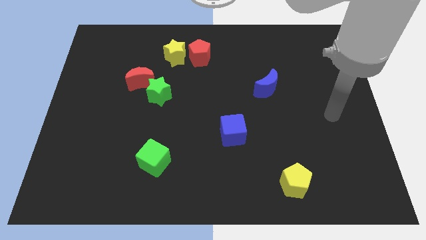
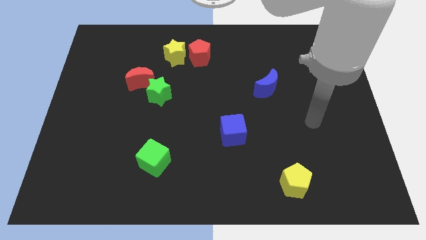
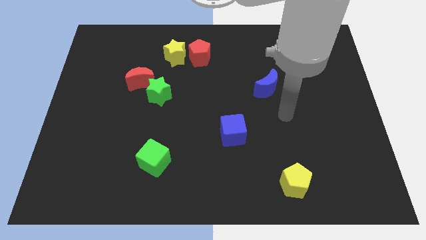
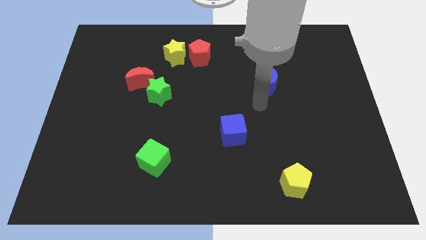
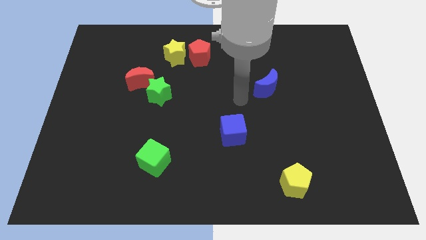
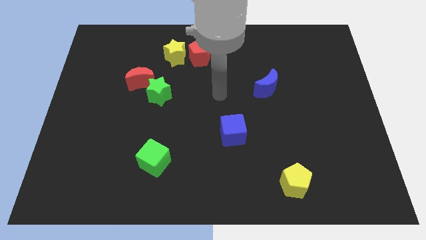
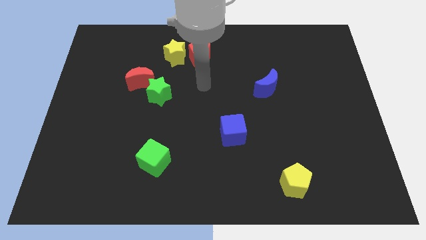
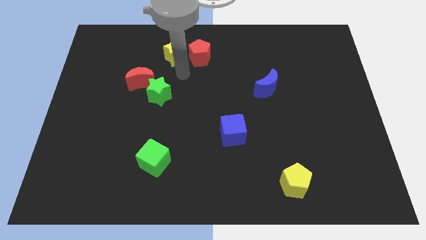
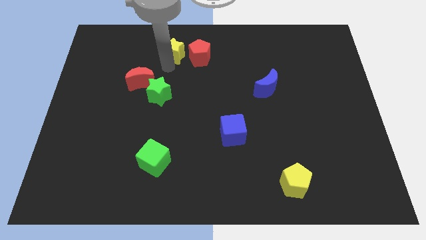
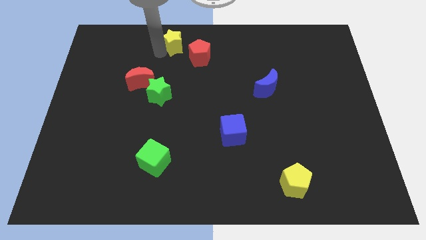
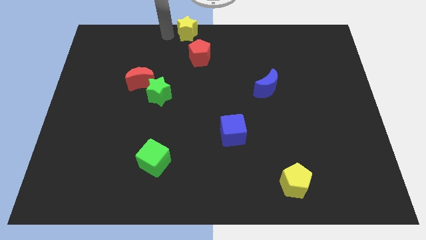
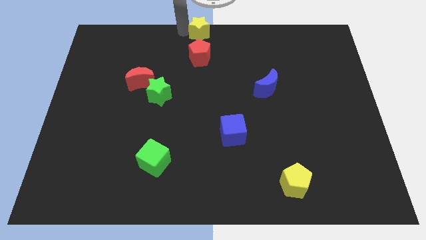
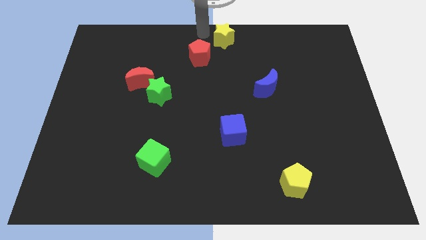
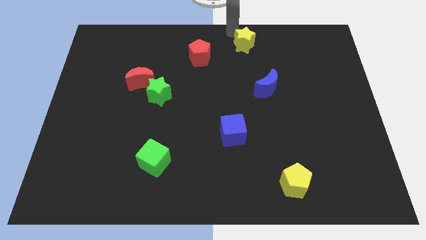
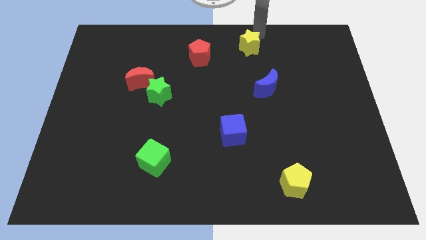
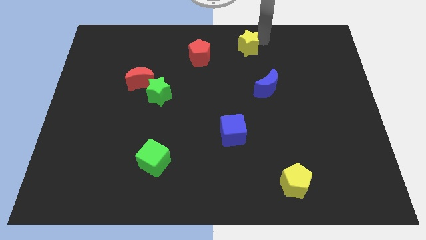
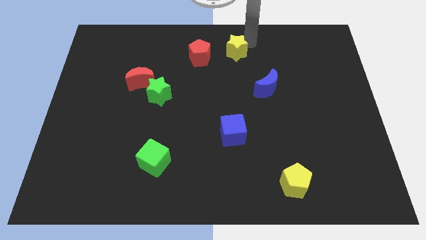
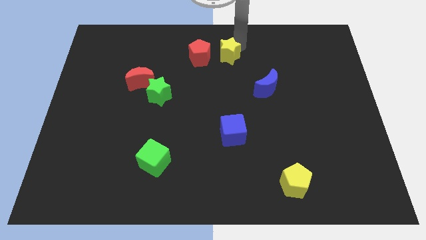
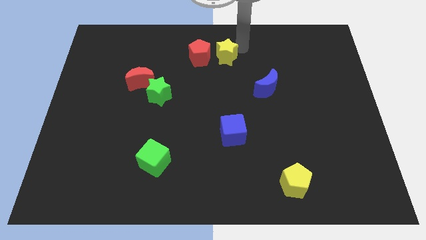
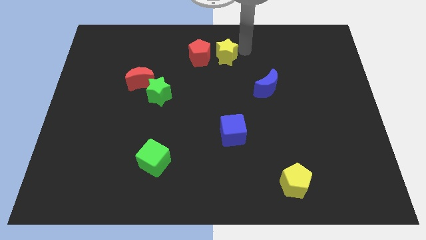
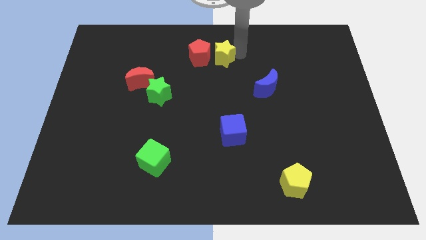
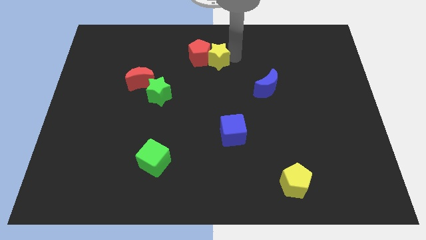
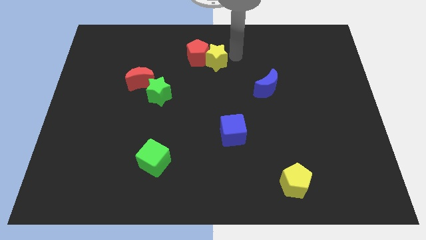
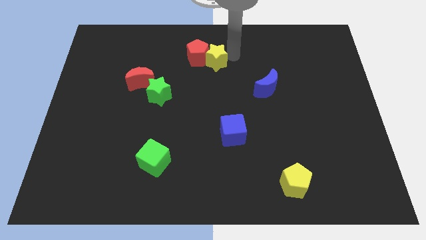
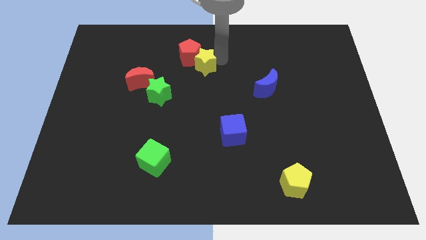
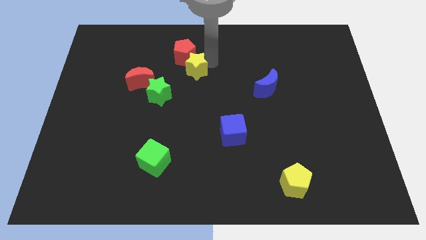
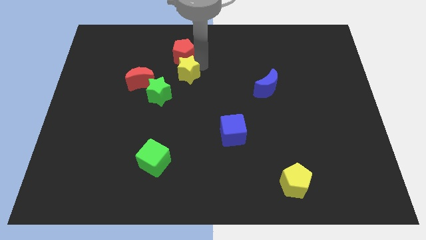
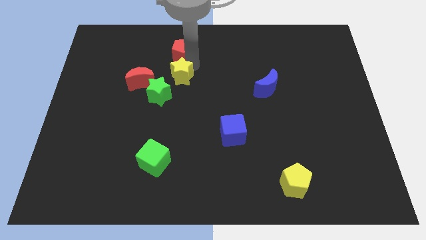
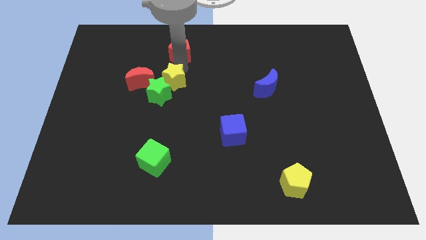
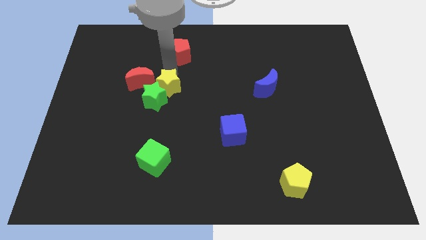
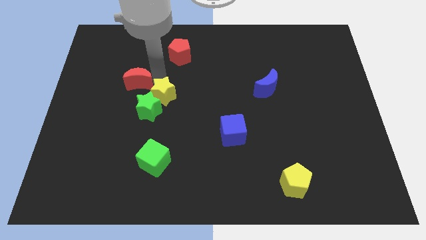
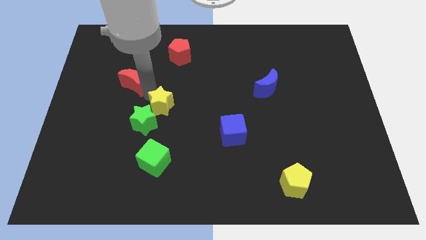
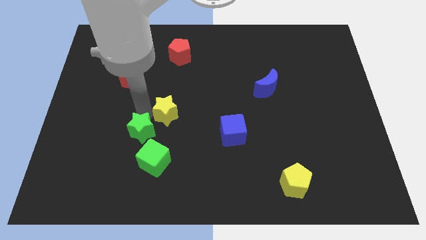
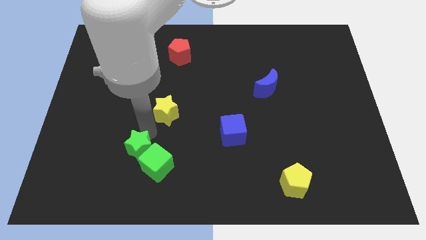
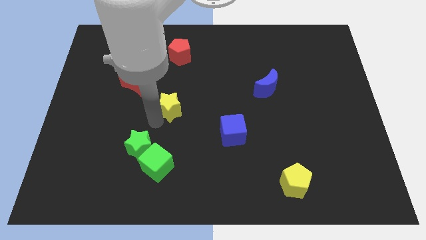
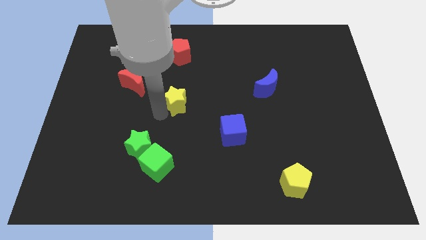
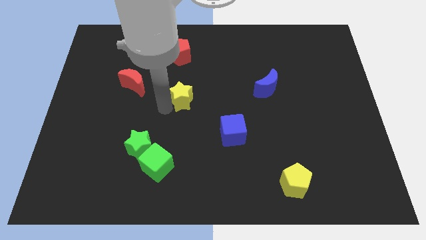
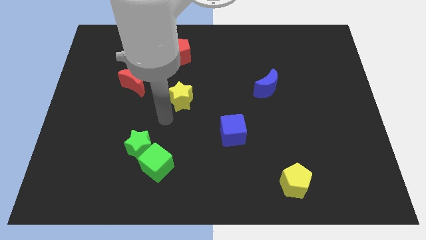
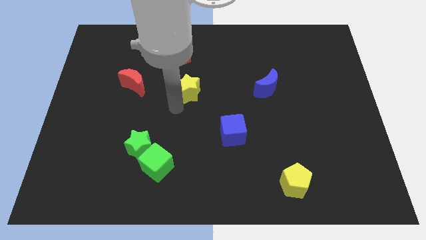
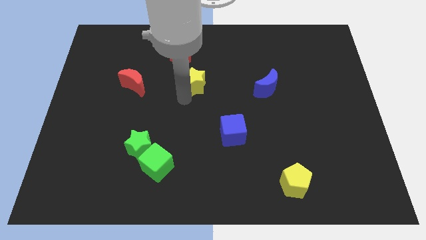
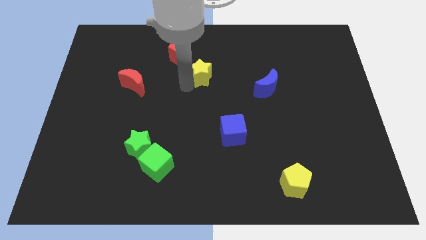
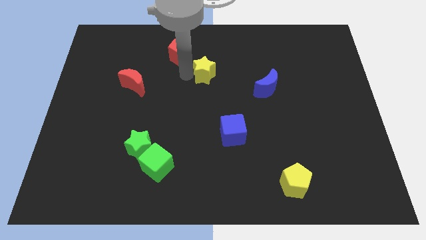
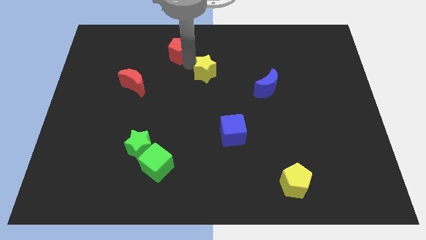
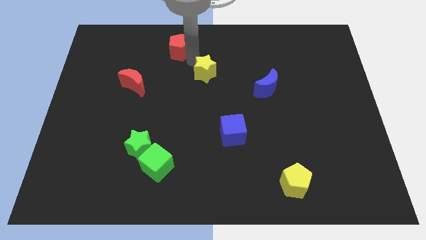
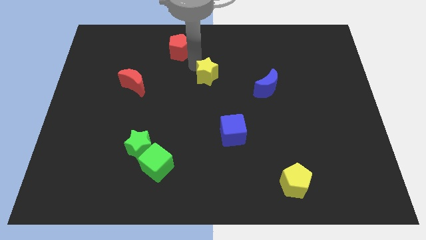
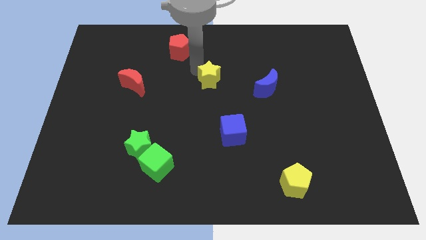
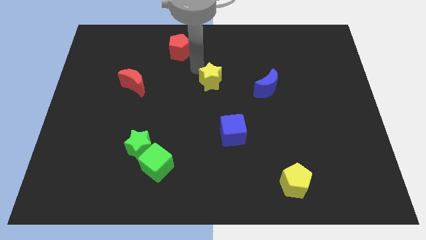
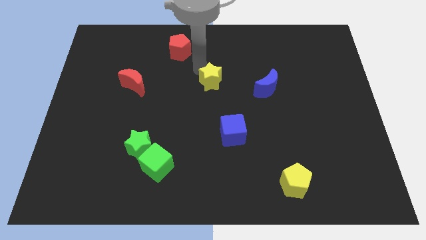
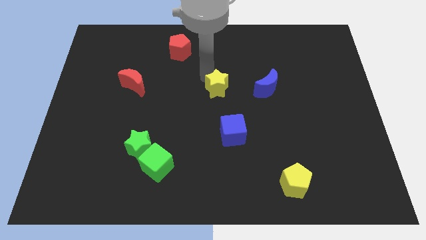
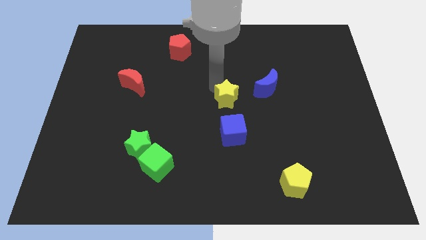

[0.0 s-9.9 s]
slide the yellow star downwards and then right

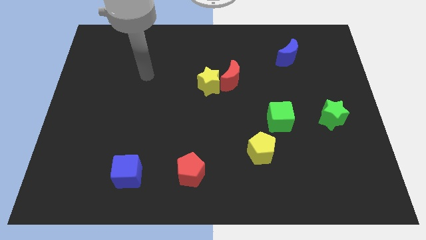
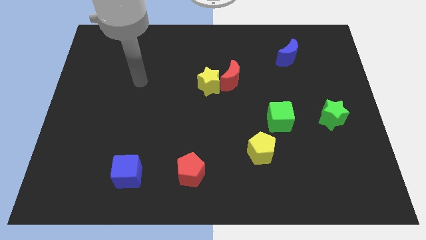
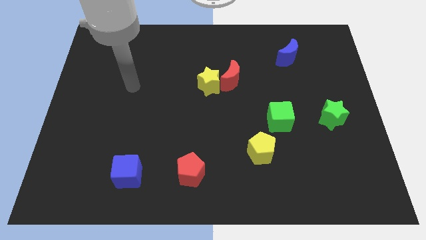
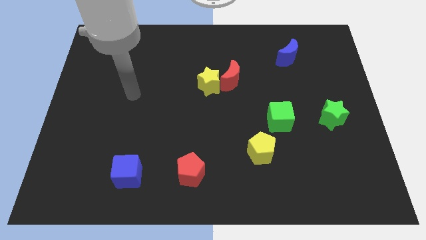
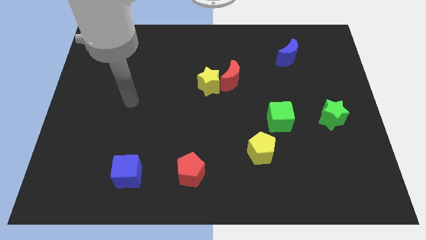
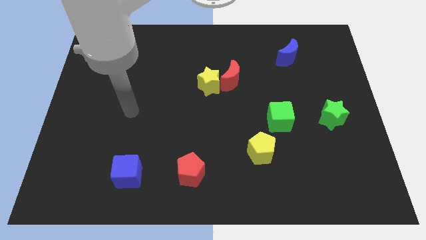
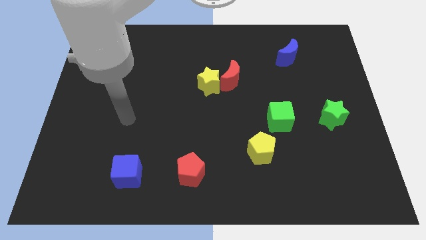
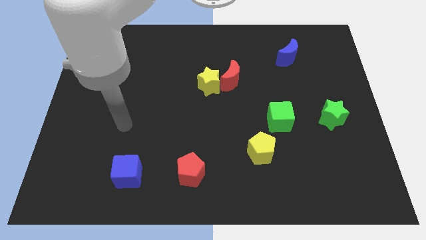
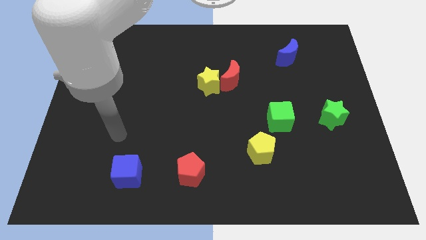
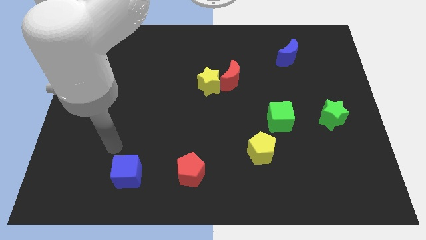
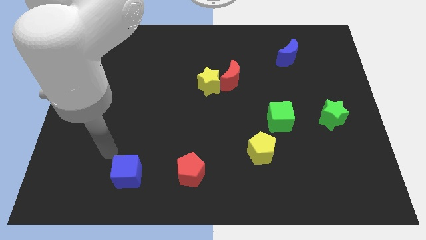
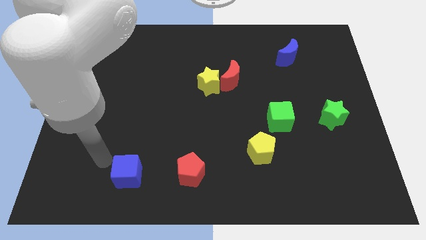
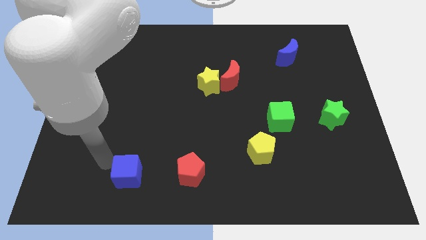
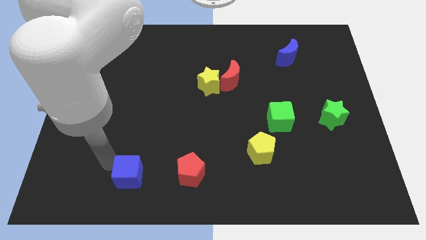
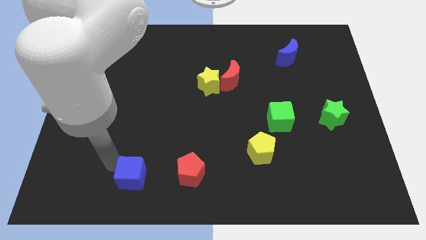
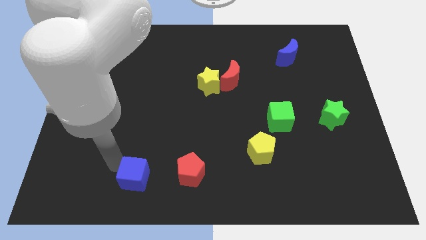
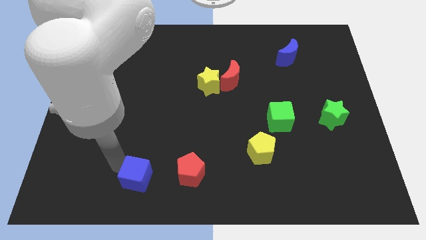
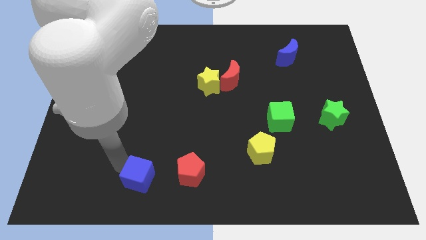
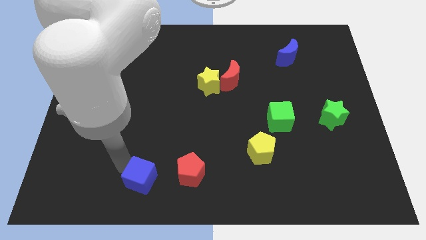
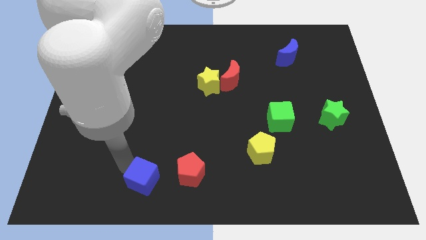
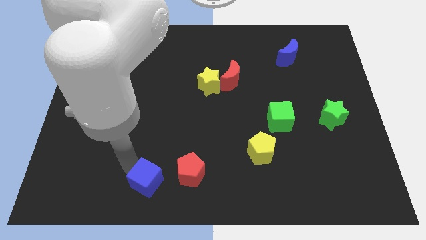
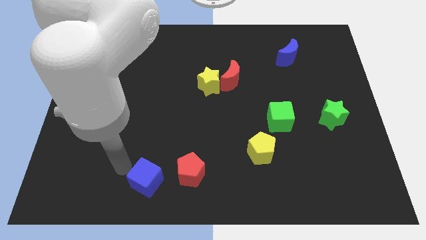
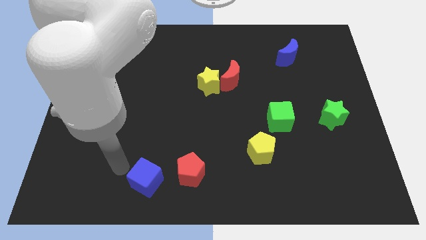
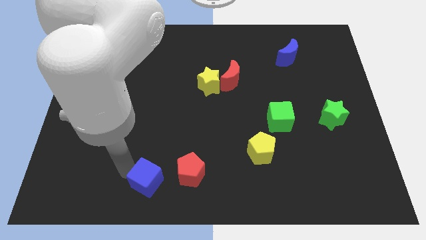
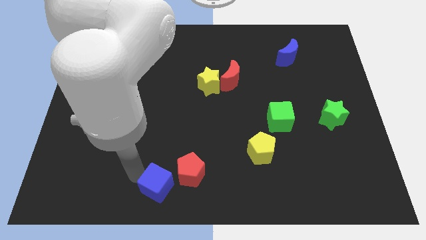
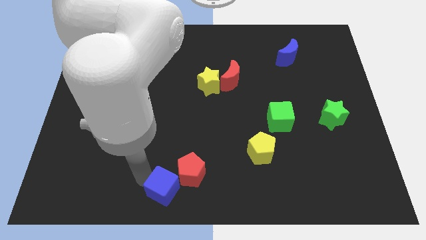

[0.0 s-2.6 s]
slide the blue cube to the right a little

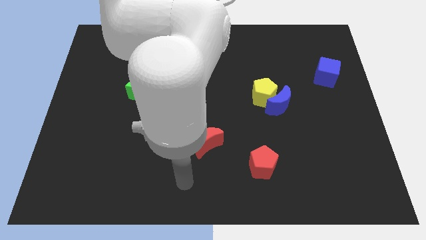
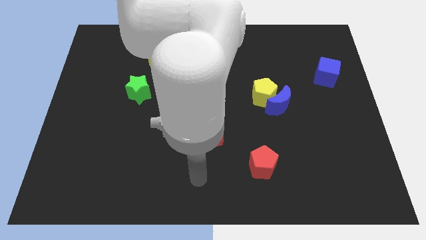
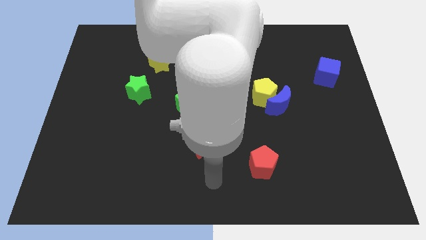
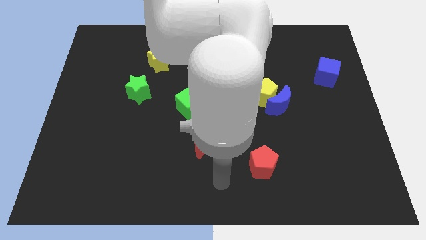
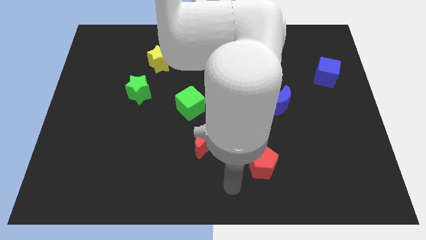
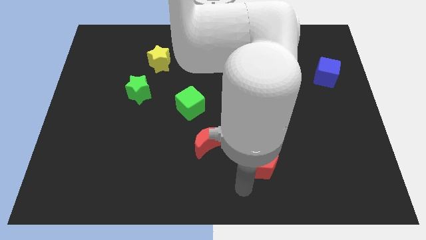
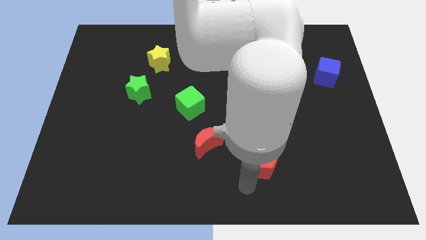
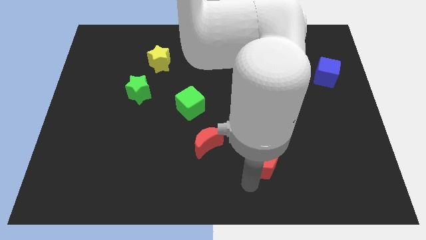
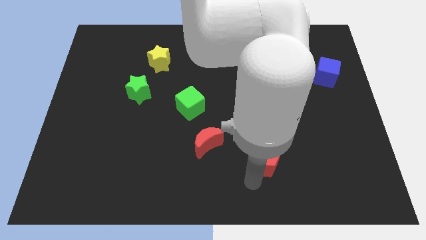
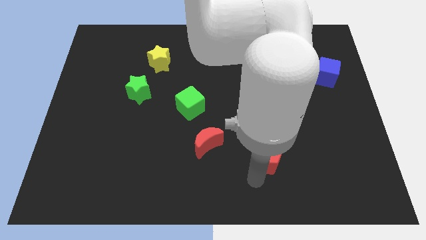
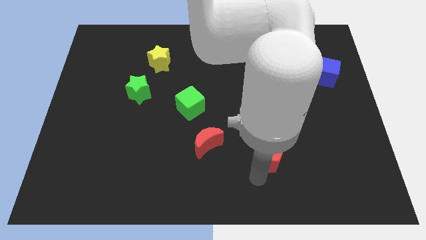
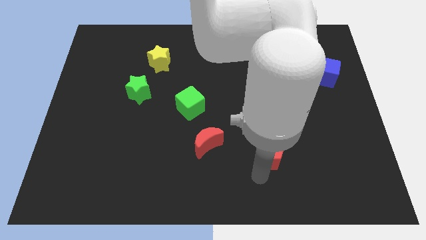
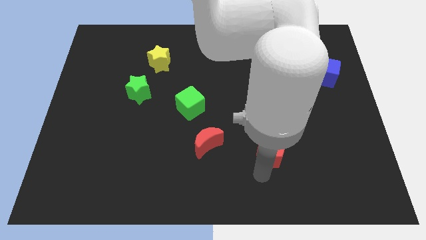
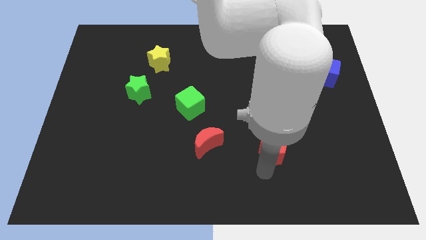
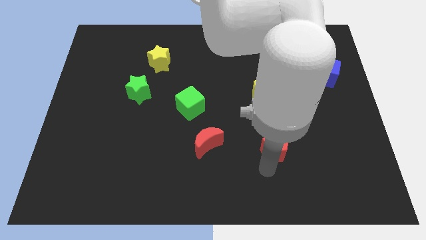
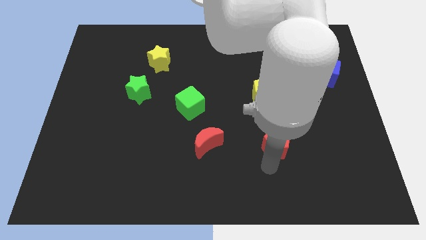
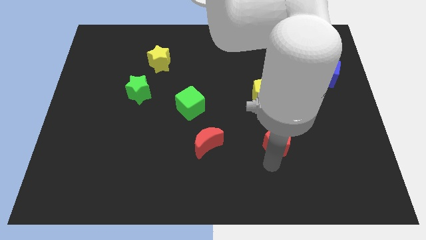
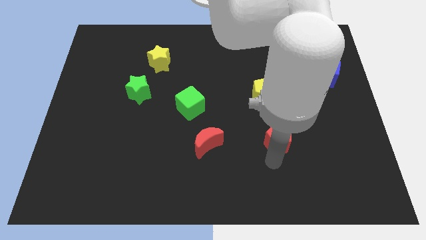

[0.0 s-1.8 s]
slightly push the red pentagon diagonally upwards and to the right
